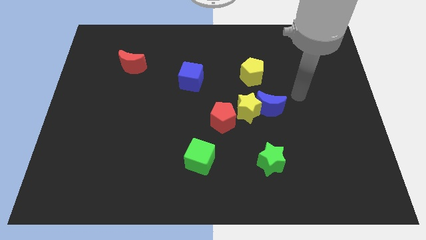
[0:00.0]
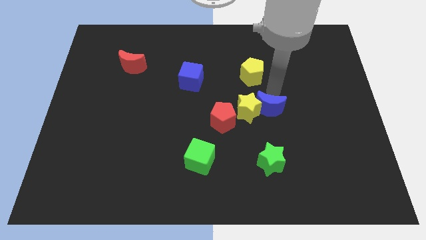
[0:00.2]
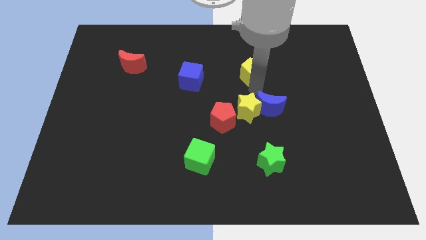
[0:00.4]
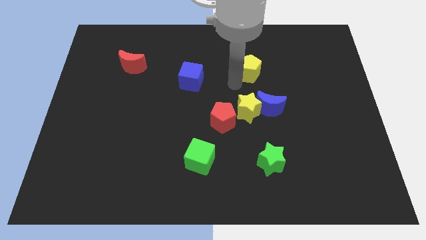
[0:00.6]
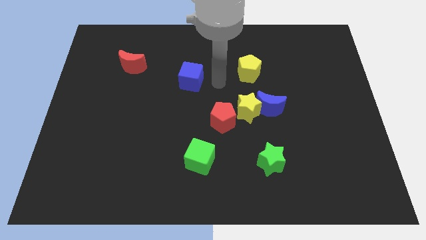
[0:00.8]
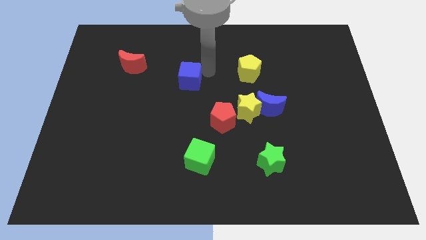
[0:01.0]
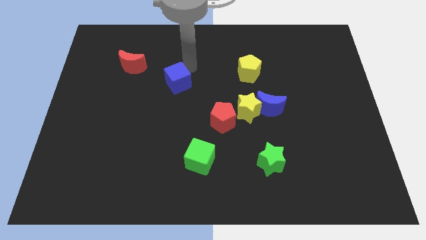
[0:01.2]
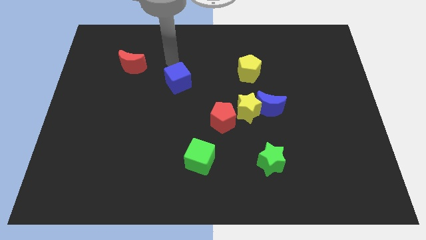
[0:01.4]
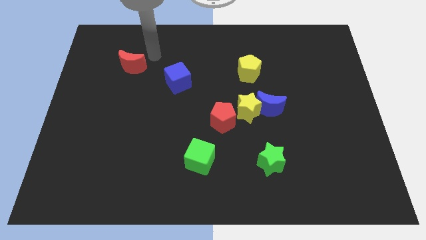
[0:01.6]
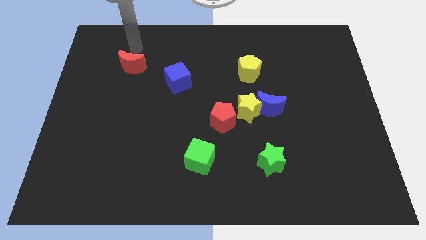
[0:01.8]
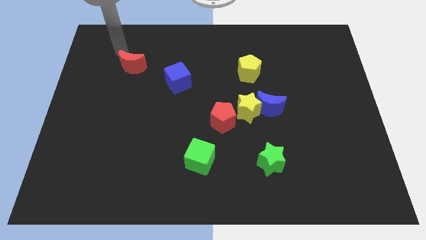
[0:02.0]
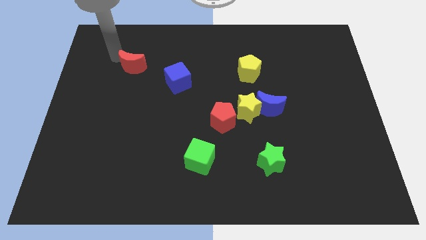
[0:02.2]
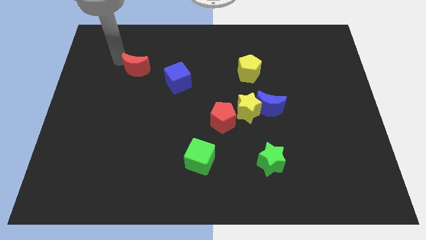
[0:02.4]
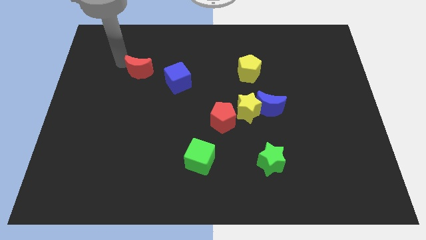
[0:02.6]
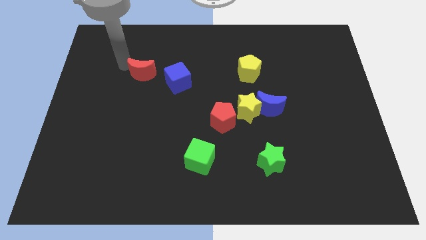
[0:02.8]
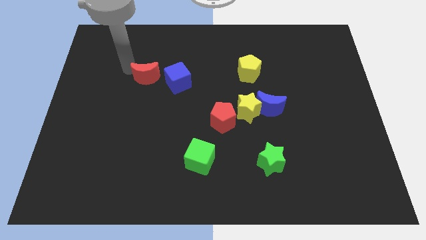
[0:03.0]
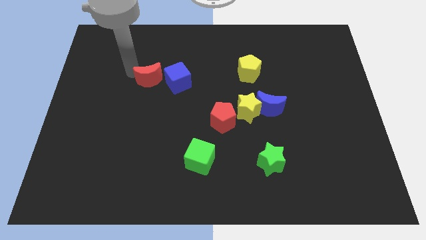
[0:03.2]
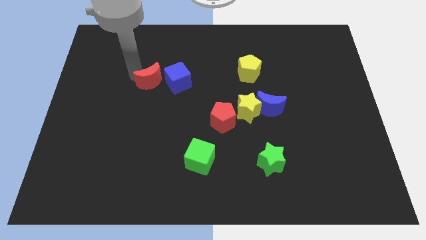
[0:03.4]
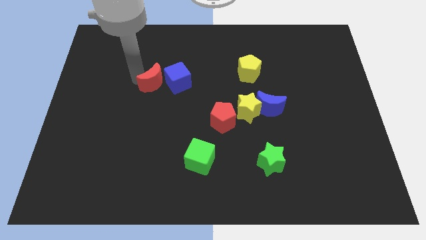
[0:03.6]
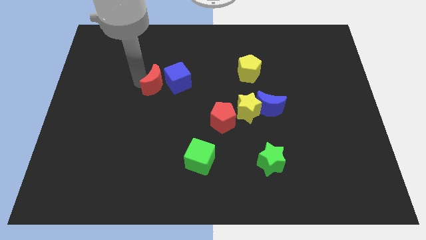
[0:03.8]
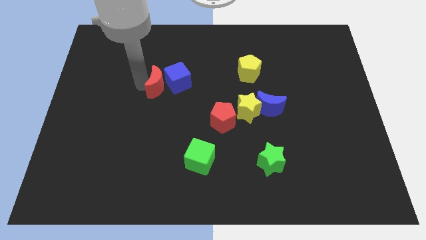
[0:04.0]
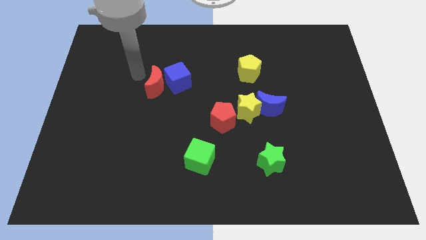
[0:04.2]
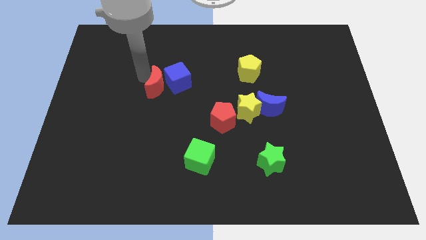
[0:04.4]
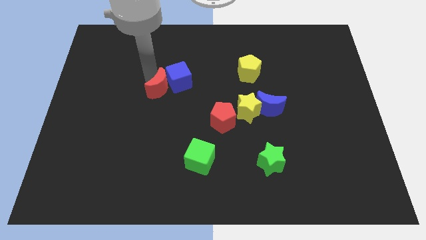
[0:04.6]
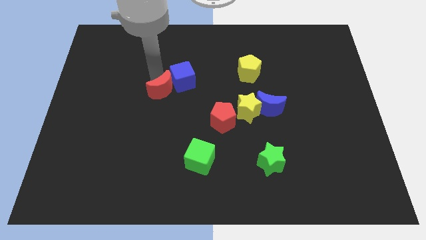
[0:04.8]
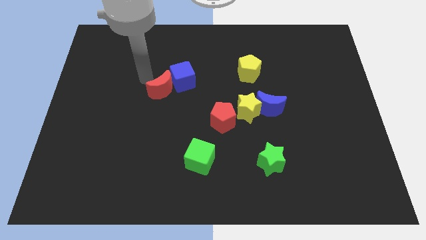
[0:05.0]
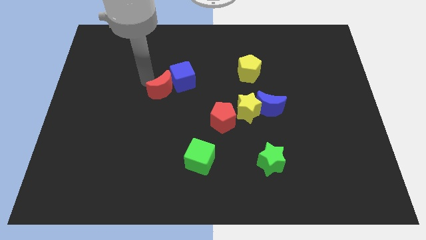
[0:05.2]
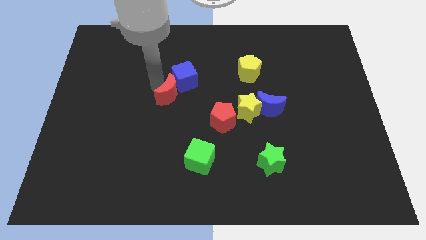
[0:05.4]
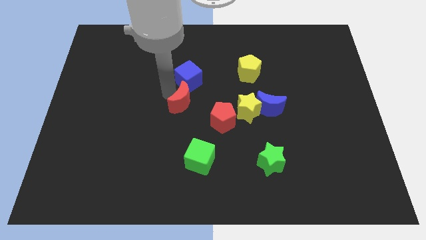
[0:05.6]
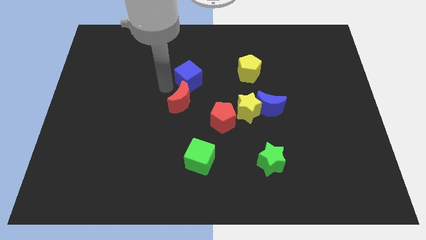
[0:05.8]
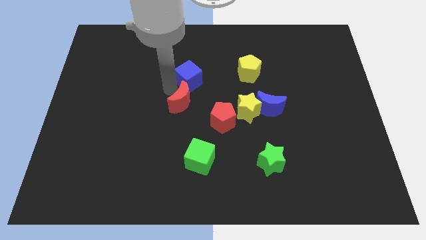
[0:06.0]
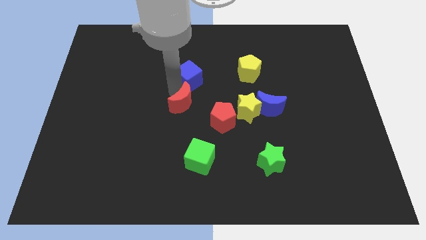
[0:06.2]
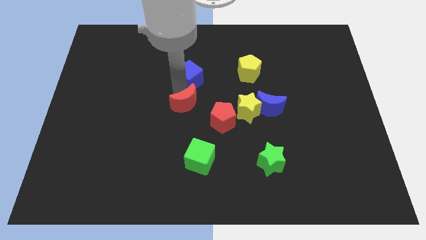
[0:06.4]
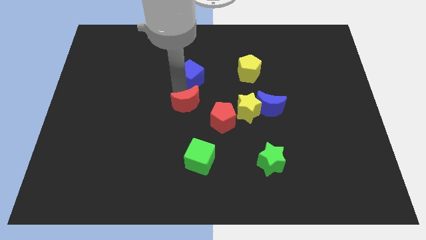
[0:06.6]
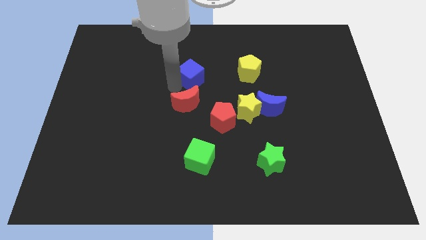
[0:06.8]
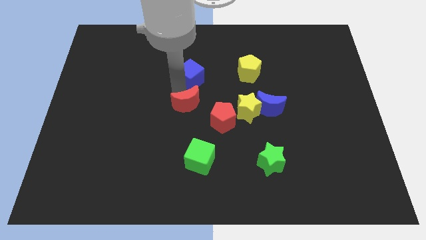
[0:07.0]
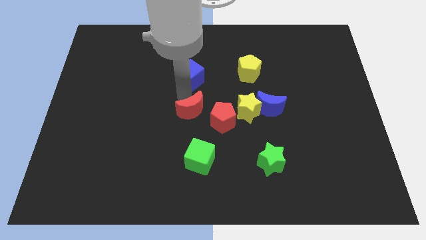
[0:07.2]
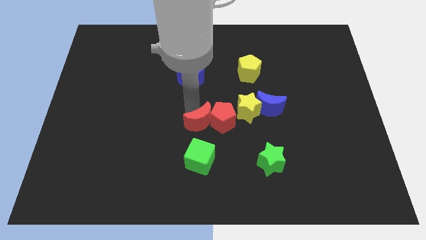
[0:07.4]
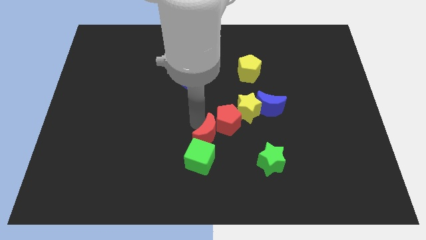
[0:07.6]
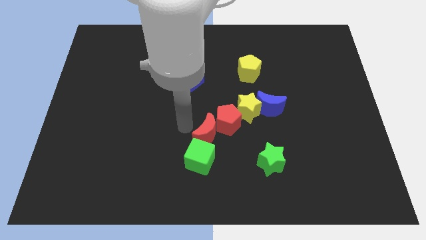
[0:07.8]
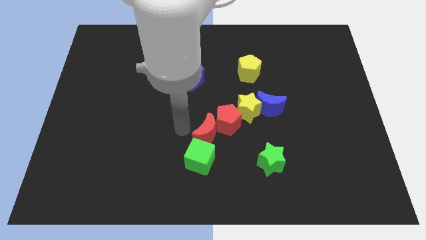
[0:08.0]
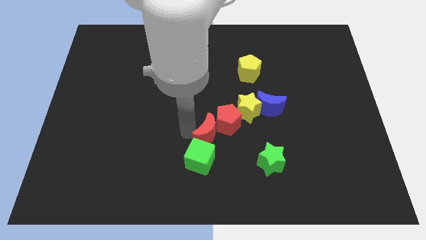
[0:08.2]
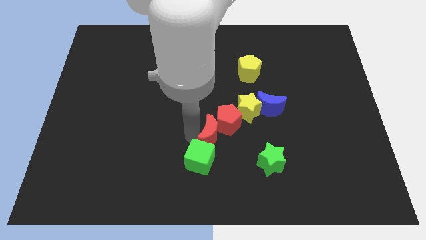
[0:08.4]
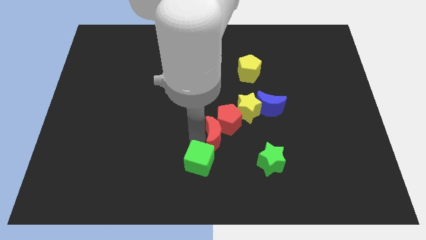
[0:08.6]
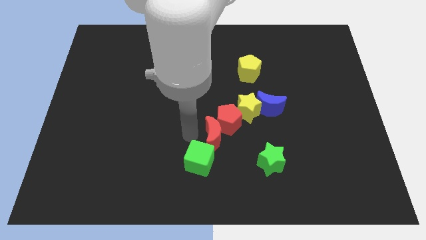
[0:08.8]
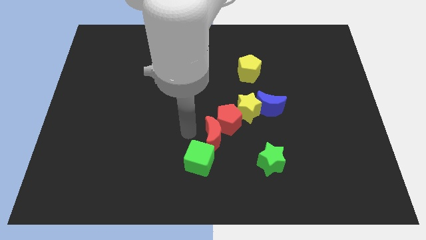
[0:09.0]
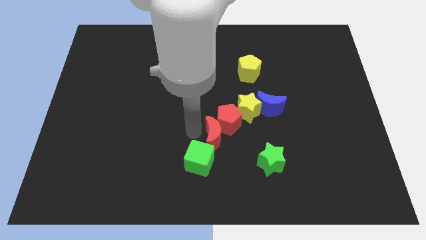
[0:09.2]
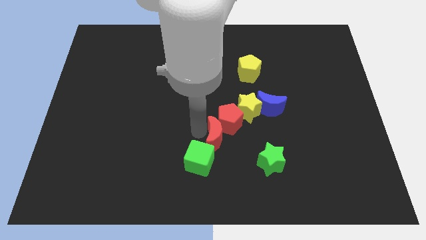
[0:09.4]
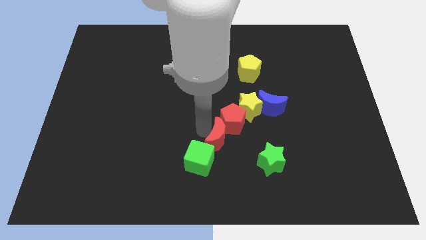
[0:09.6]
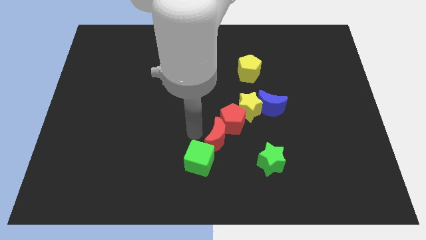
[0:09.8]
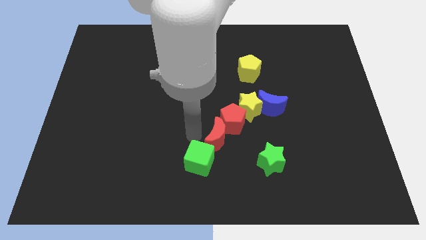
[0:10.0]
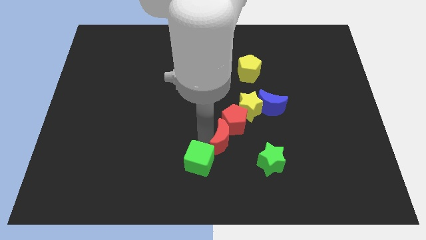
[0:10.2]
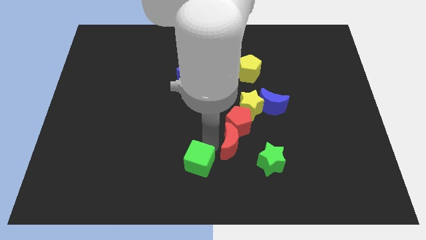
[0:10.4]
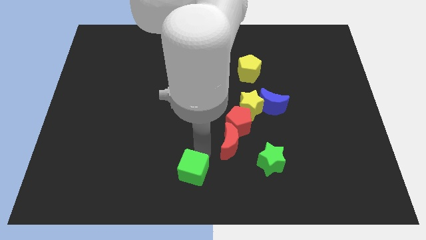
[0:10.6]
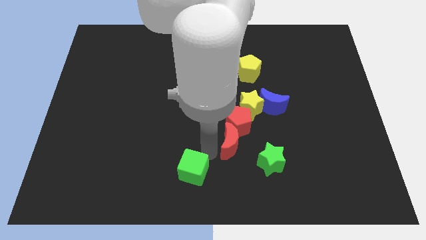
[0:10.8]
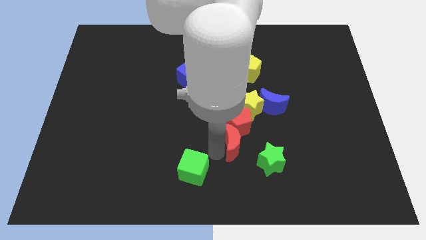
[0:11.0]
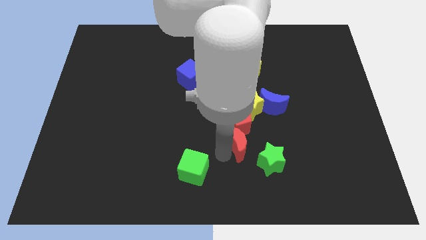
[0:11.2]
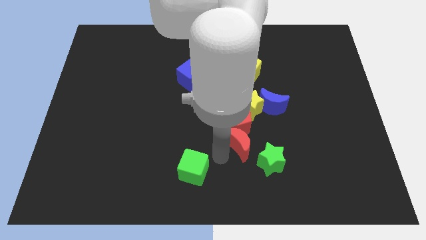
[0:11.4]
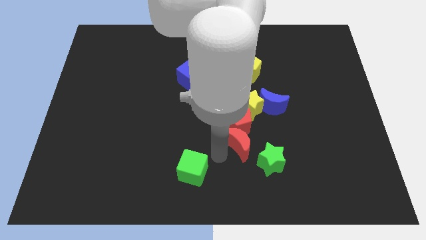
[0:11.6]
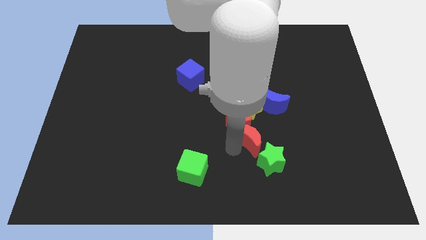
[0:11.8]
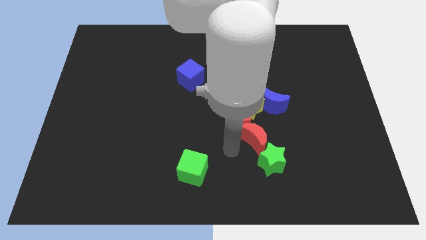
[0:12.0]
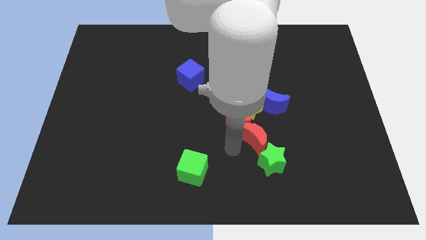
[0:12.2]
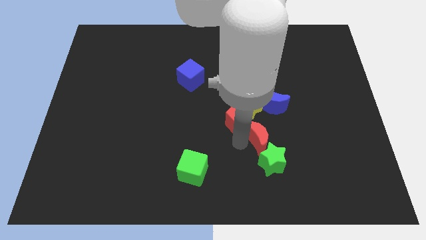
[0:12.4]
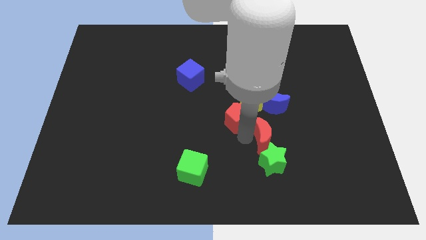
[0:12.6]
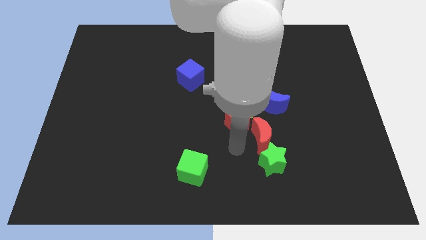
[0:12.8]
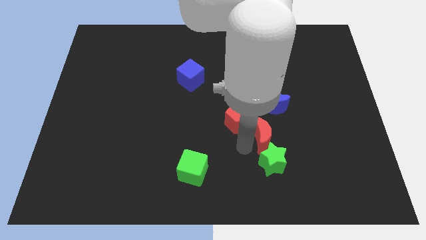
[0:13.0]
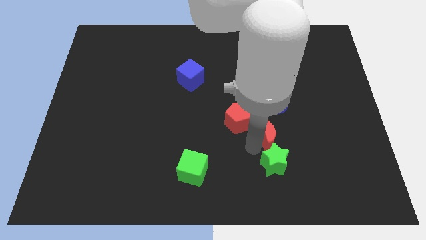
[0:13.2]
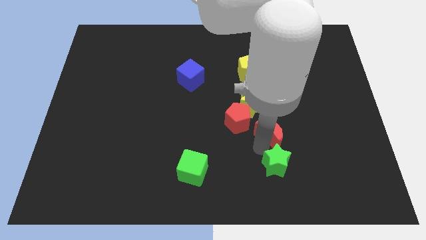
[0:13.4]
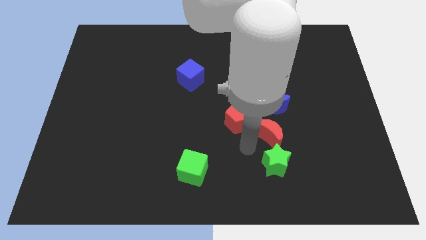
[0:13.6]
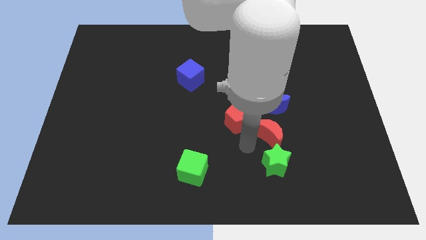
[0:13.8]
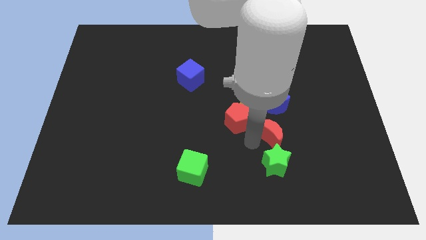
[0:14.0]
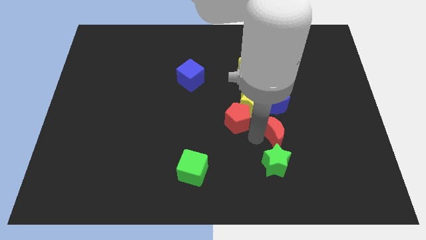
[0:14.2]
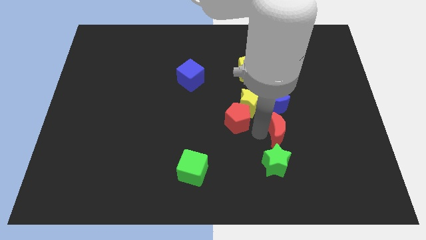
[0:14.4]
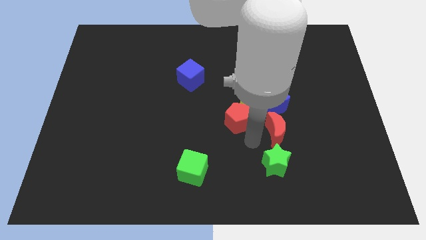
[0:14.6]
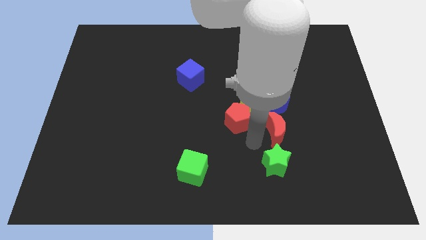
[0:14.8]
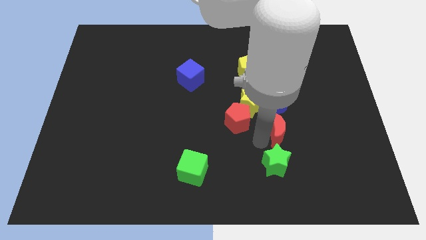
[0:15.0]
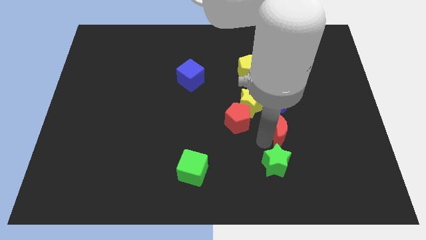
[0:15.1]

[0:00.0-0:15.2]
move the red moon to the bottom right side of the blue moon
